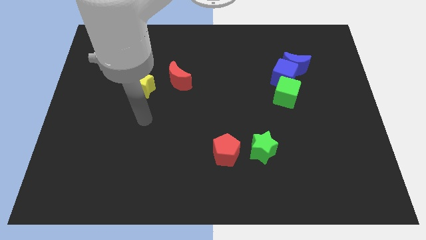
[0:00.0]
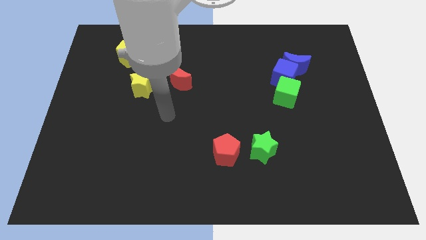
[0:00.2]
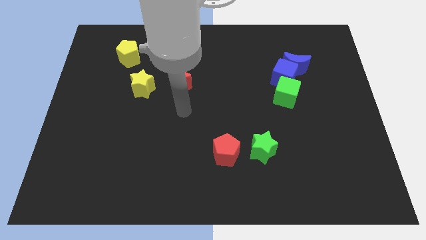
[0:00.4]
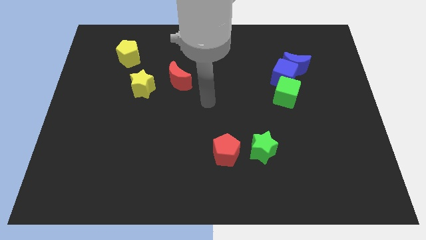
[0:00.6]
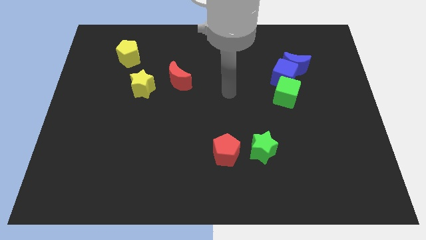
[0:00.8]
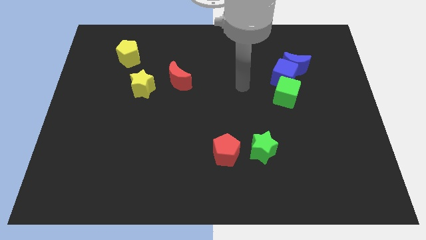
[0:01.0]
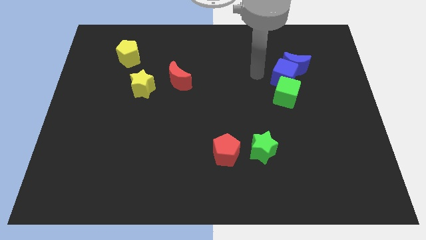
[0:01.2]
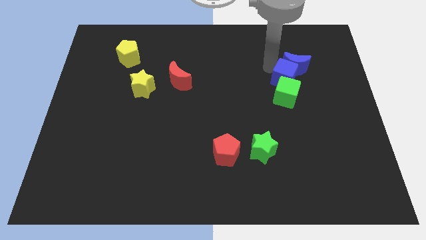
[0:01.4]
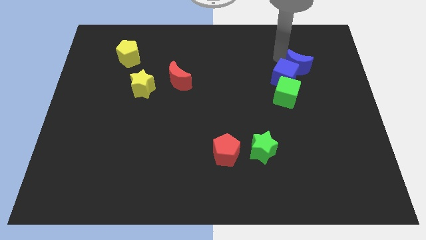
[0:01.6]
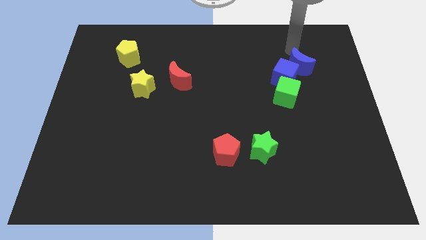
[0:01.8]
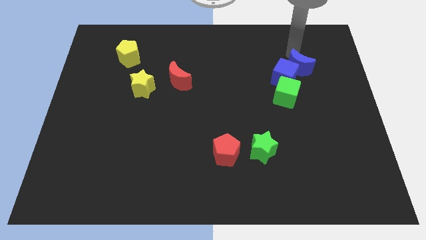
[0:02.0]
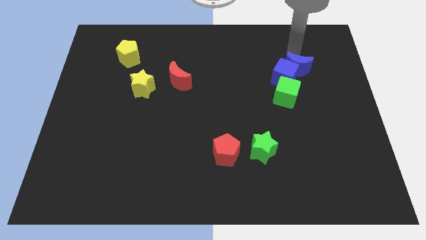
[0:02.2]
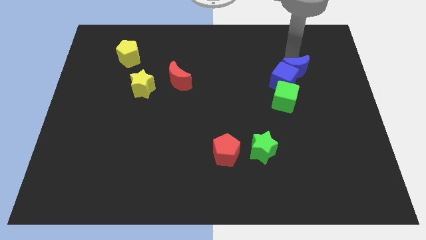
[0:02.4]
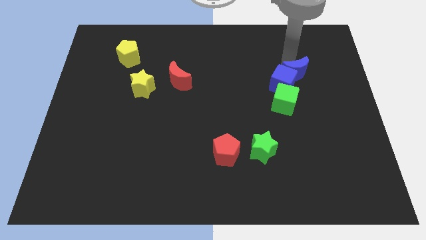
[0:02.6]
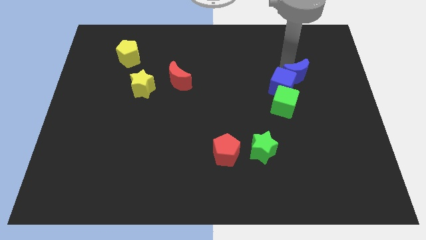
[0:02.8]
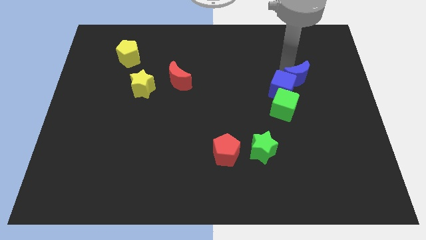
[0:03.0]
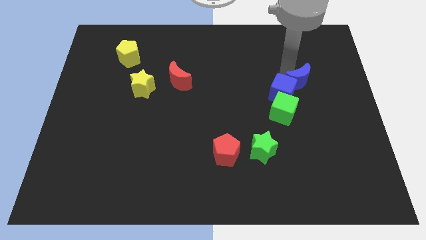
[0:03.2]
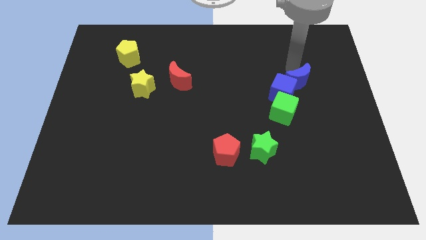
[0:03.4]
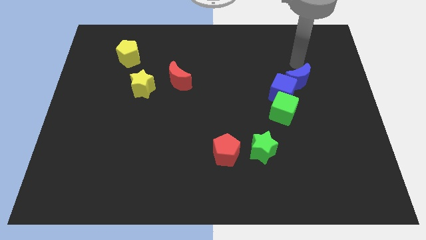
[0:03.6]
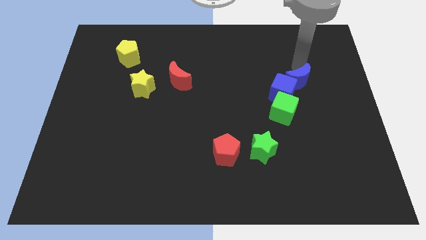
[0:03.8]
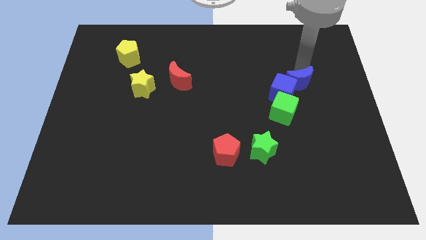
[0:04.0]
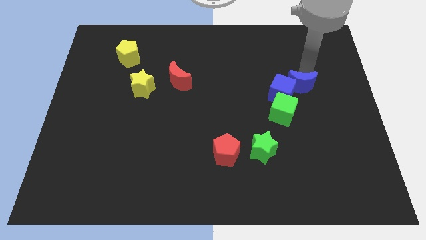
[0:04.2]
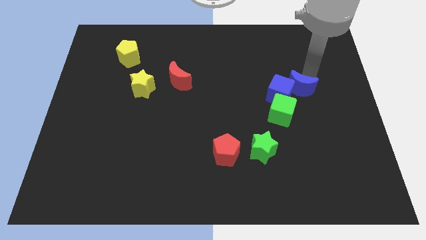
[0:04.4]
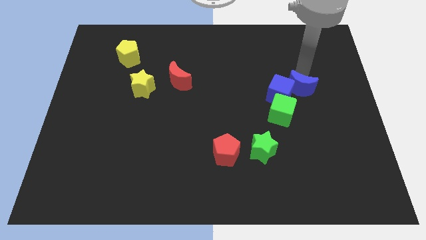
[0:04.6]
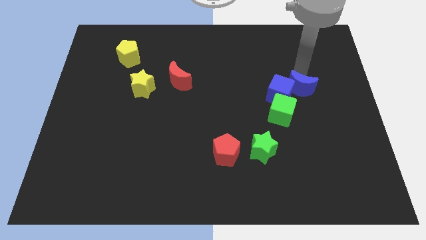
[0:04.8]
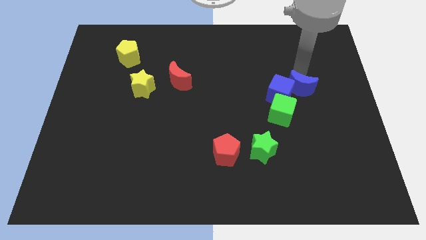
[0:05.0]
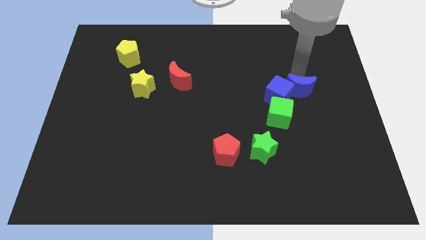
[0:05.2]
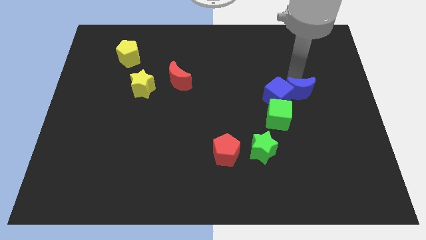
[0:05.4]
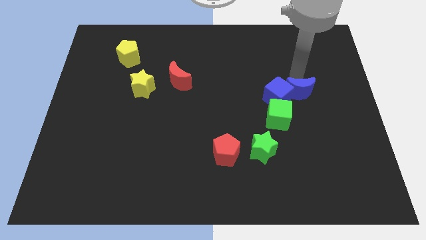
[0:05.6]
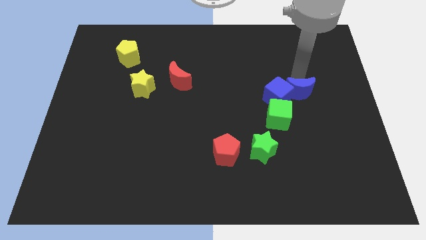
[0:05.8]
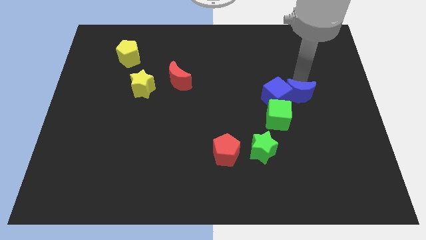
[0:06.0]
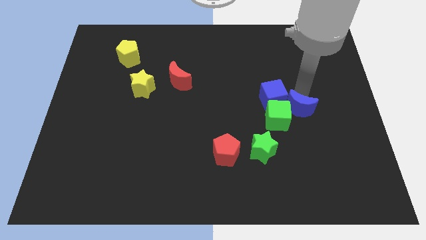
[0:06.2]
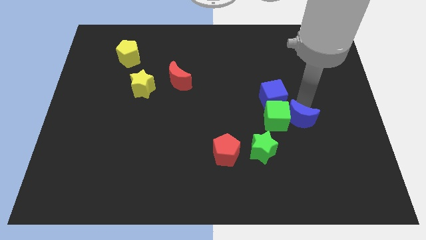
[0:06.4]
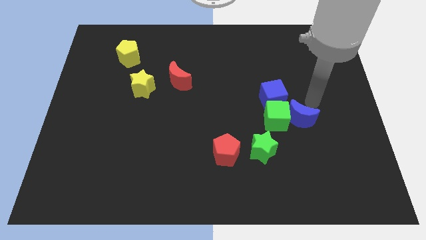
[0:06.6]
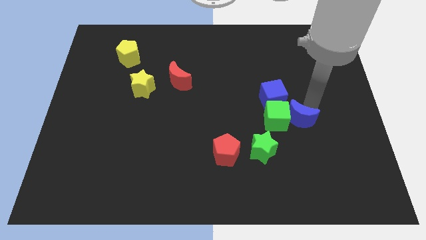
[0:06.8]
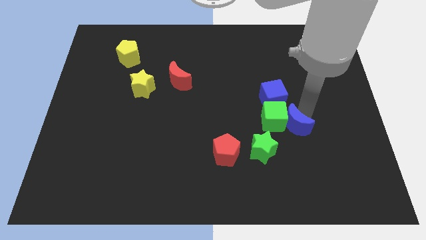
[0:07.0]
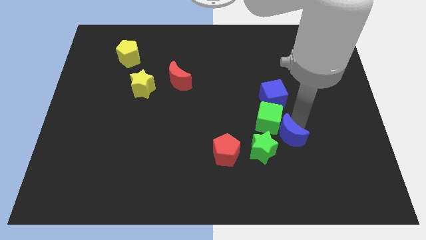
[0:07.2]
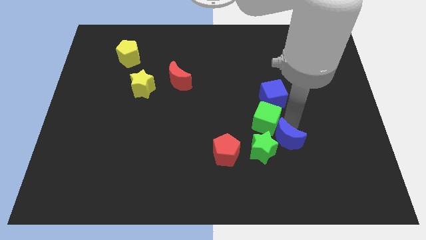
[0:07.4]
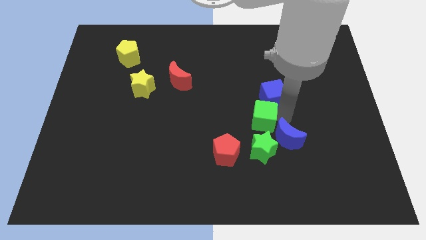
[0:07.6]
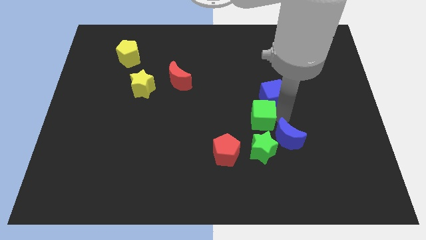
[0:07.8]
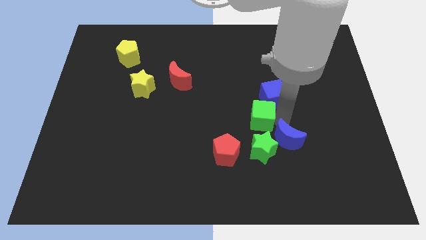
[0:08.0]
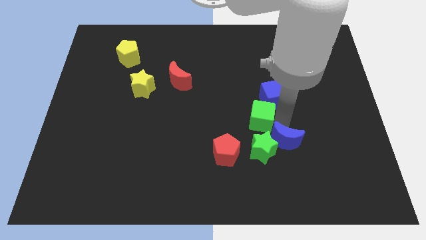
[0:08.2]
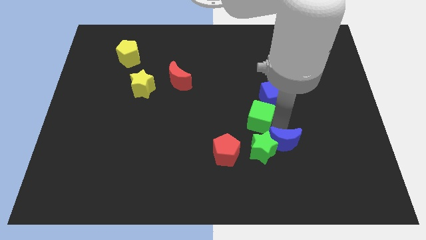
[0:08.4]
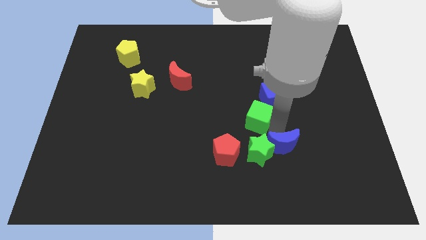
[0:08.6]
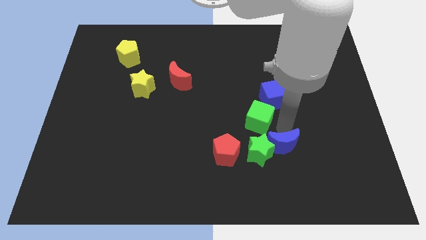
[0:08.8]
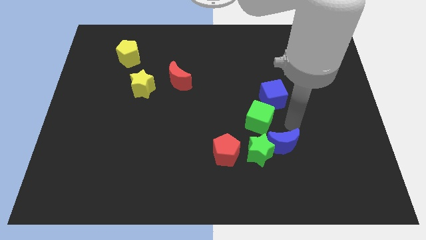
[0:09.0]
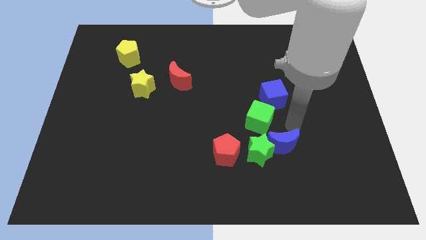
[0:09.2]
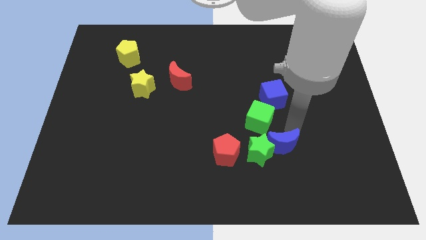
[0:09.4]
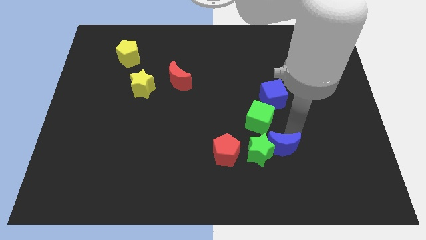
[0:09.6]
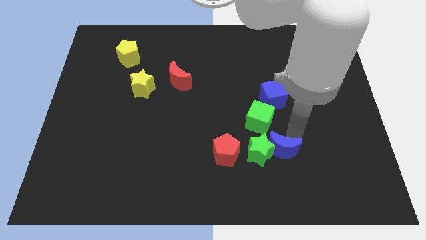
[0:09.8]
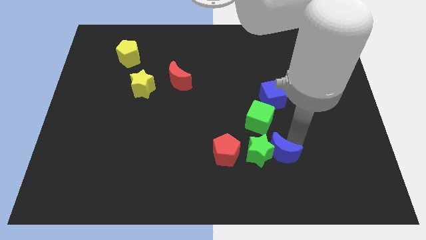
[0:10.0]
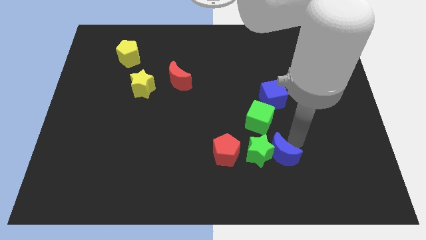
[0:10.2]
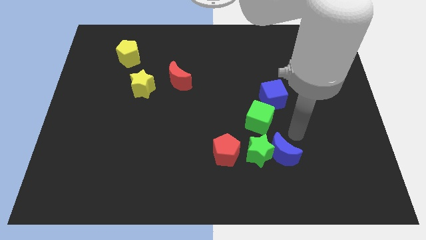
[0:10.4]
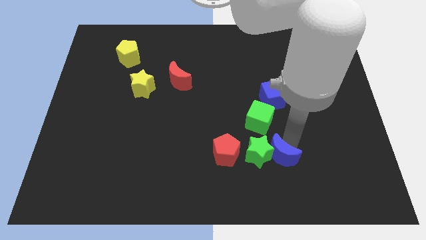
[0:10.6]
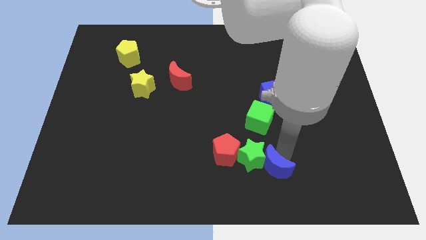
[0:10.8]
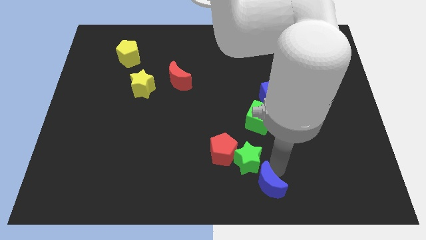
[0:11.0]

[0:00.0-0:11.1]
move the blue moon to the bottom side
